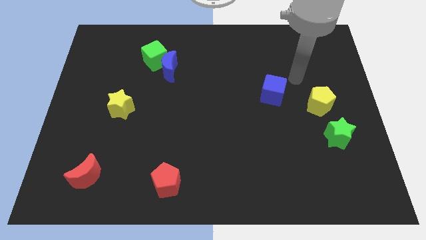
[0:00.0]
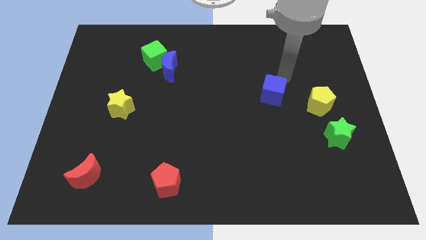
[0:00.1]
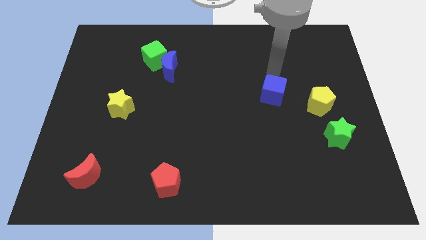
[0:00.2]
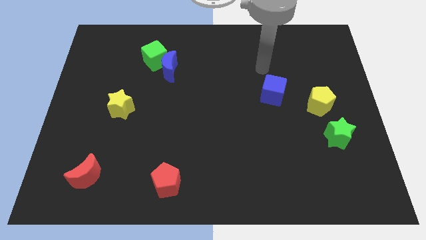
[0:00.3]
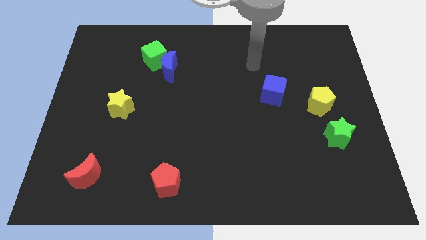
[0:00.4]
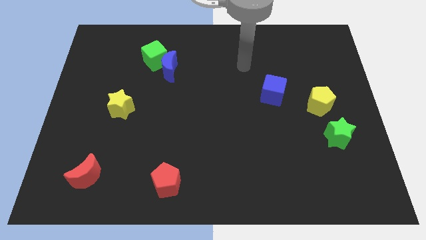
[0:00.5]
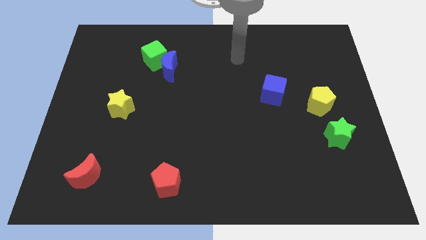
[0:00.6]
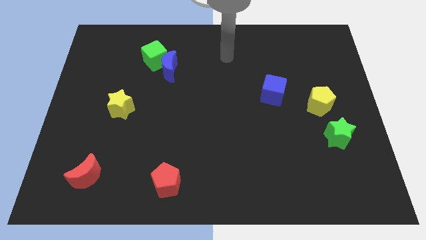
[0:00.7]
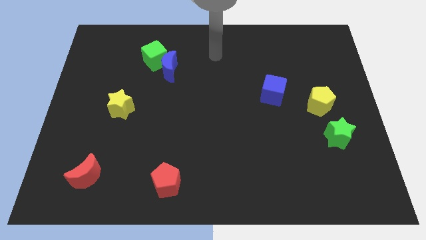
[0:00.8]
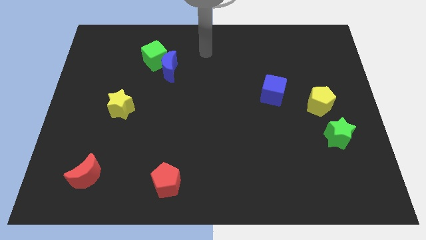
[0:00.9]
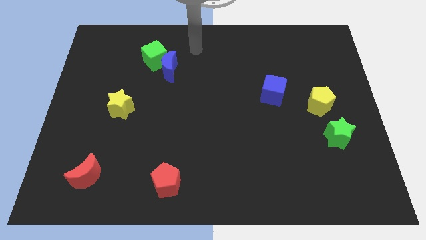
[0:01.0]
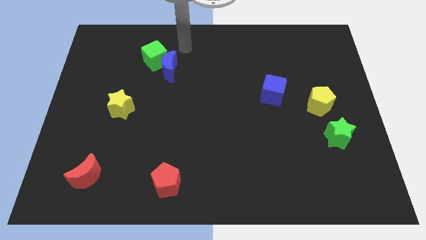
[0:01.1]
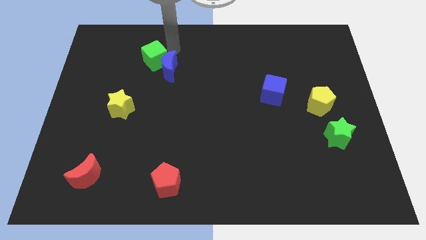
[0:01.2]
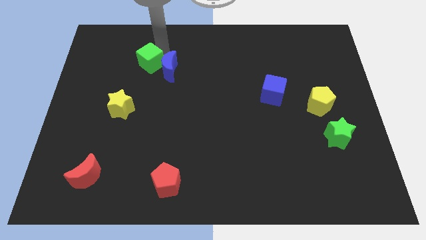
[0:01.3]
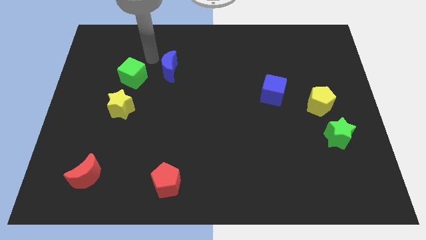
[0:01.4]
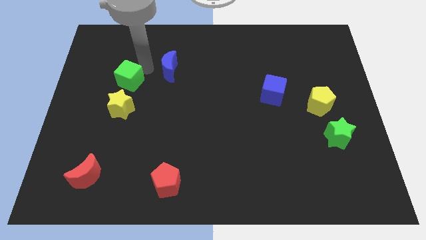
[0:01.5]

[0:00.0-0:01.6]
move the blue moon away from the green cube

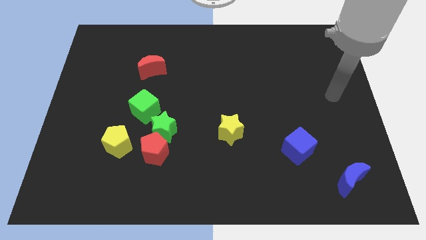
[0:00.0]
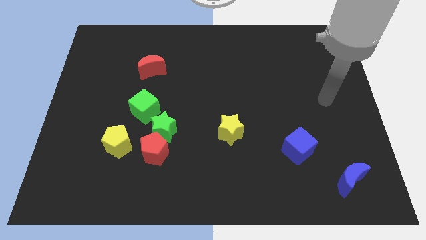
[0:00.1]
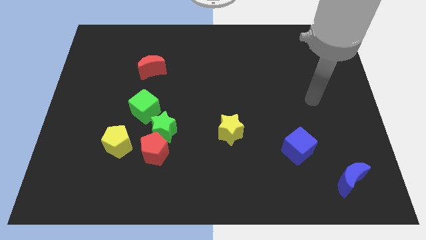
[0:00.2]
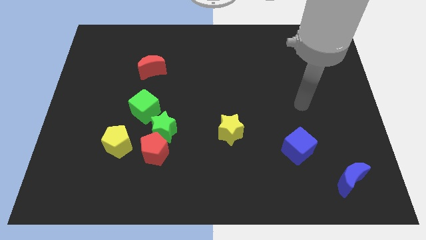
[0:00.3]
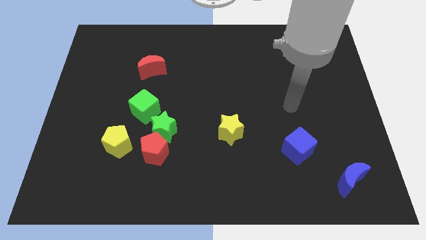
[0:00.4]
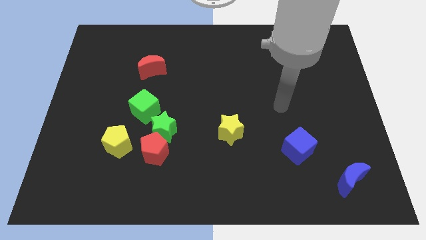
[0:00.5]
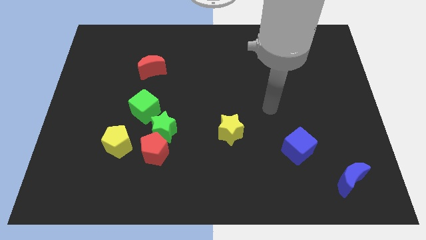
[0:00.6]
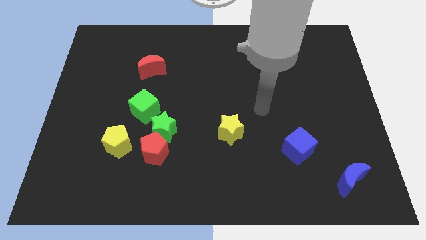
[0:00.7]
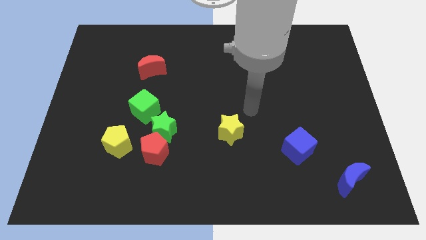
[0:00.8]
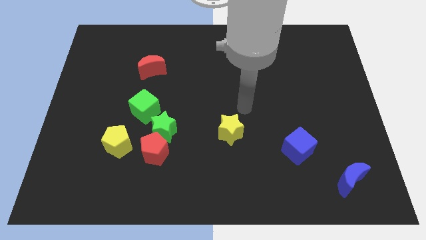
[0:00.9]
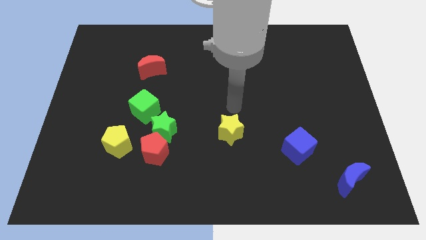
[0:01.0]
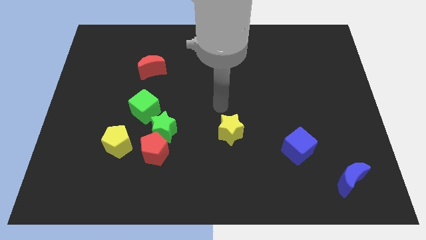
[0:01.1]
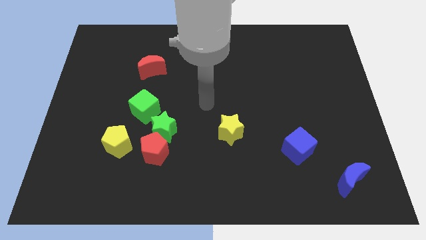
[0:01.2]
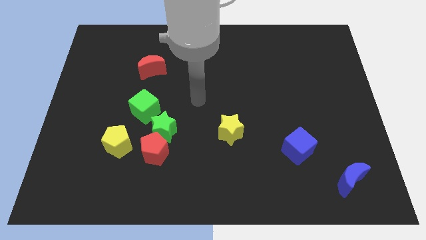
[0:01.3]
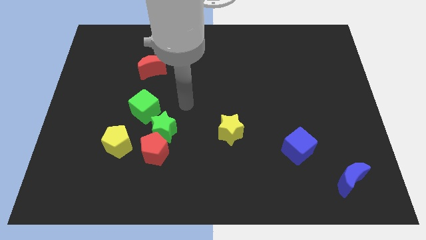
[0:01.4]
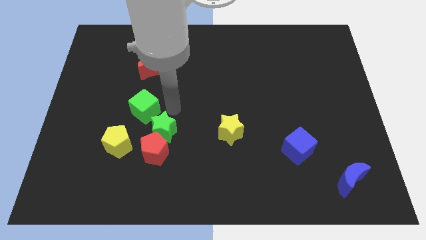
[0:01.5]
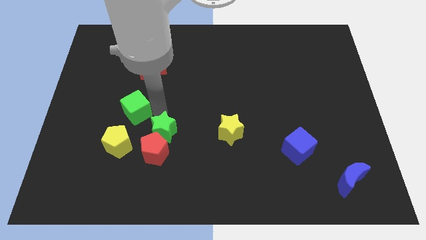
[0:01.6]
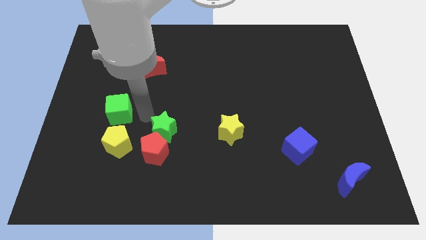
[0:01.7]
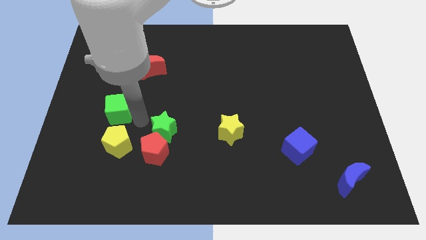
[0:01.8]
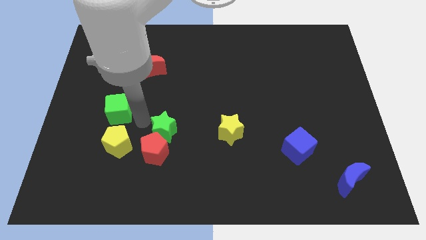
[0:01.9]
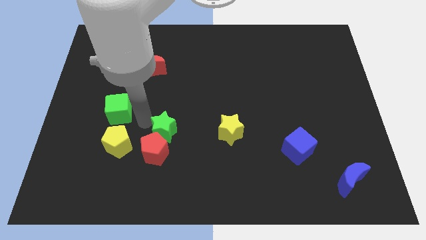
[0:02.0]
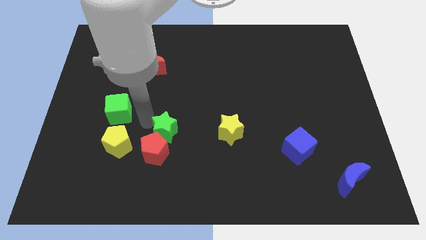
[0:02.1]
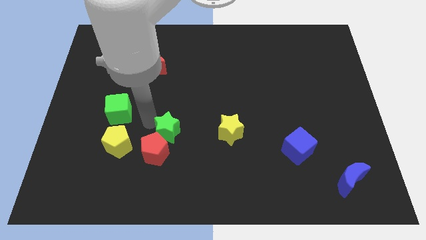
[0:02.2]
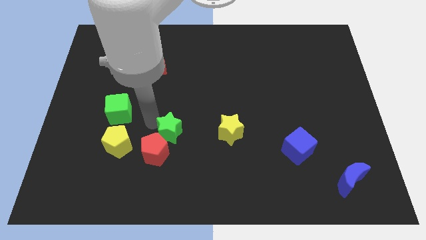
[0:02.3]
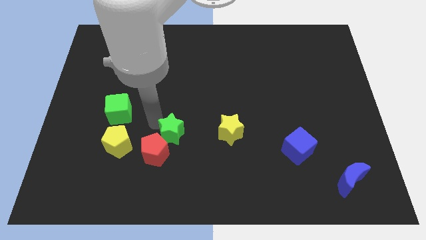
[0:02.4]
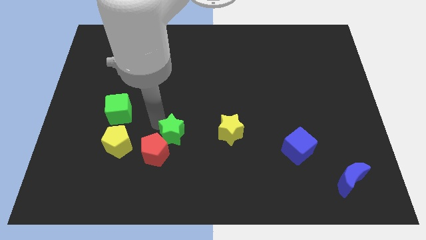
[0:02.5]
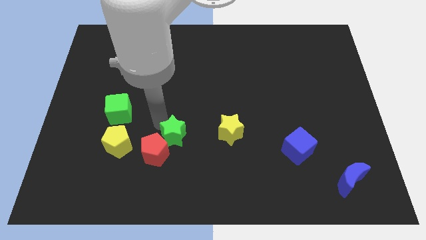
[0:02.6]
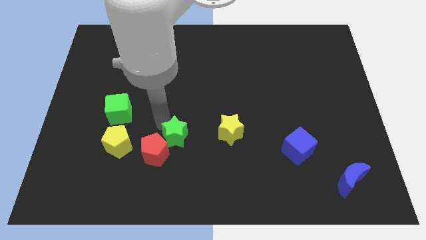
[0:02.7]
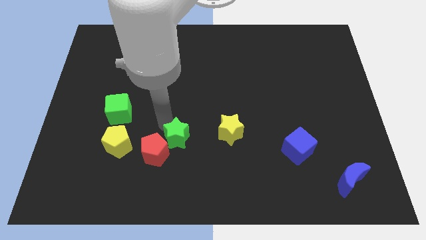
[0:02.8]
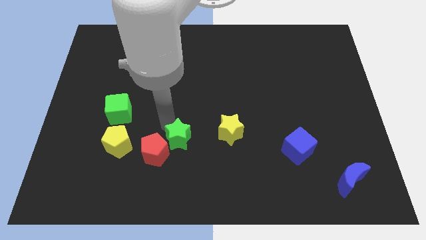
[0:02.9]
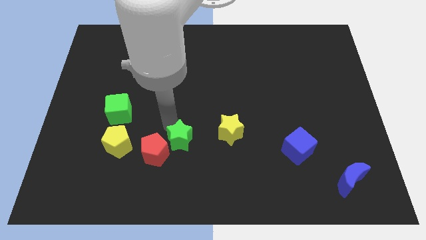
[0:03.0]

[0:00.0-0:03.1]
pull the green star apart from the red pentagon and green cube

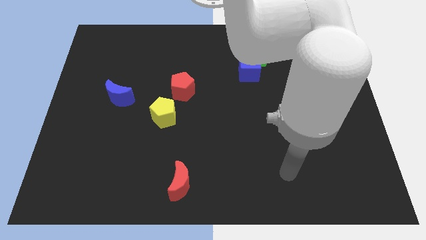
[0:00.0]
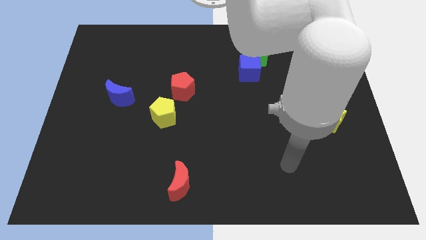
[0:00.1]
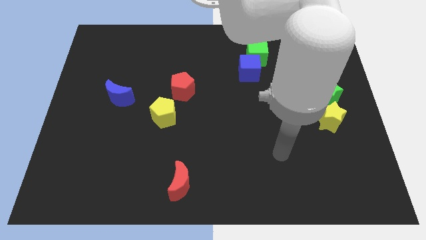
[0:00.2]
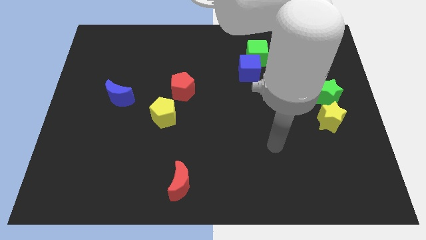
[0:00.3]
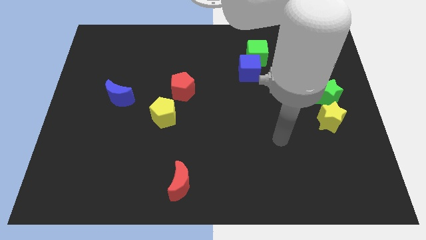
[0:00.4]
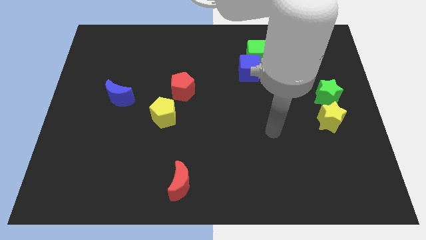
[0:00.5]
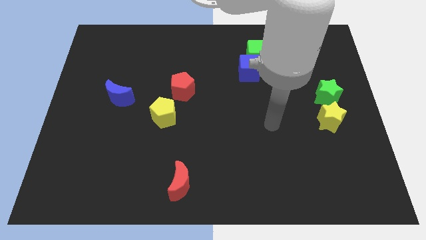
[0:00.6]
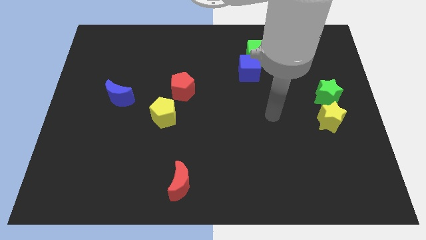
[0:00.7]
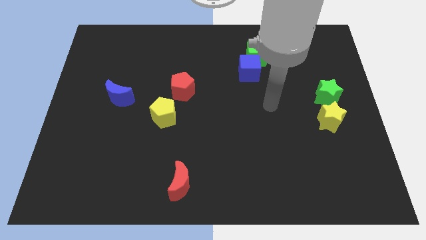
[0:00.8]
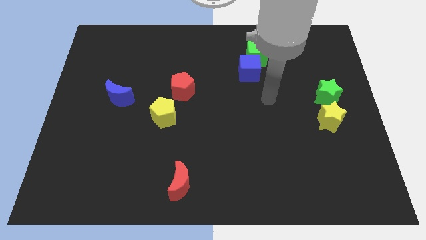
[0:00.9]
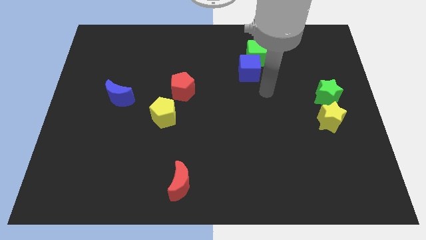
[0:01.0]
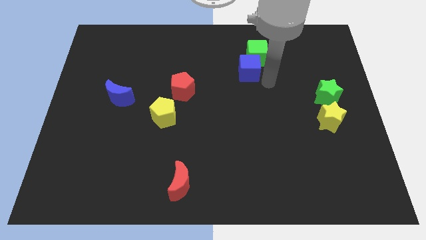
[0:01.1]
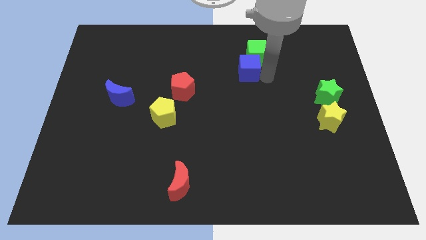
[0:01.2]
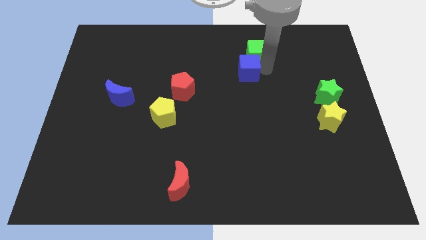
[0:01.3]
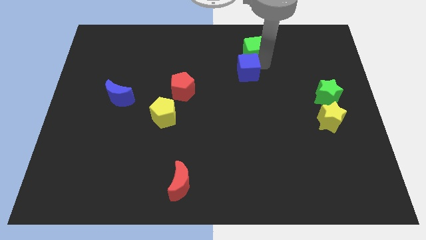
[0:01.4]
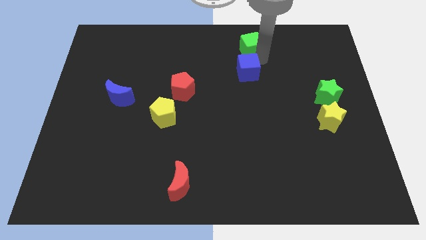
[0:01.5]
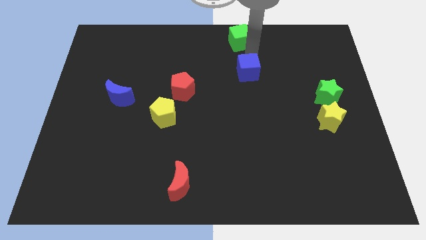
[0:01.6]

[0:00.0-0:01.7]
pull the blue cube apart from the green cube

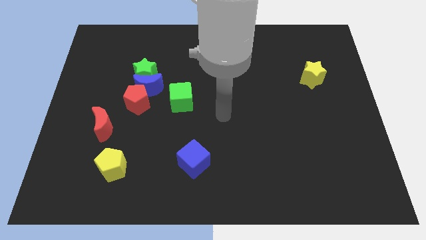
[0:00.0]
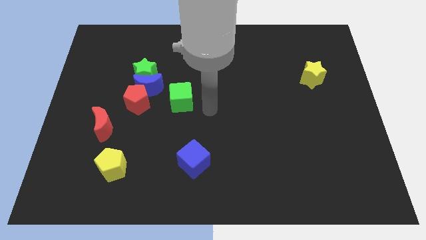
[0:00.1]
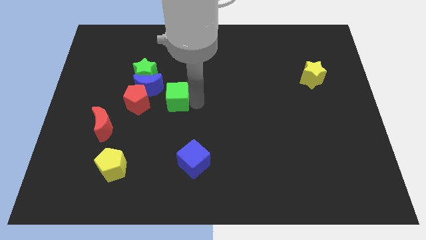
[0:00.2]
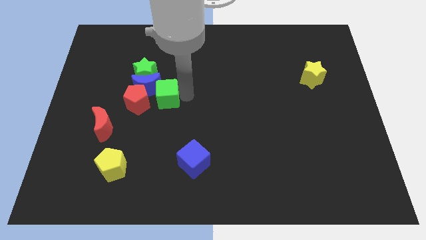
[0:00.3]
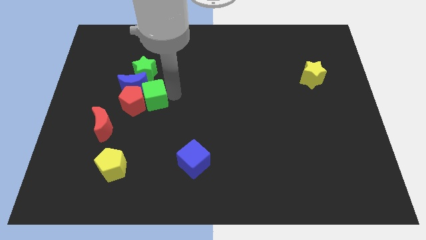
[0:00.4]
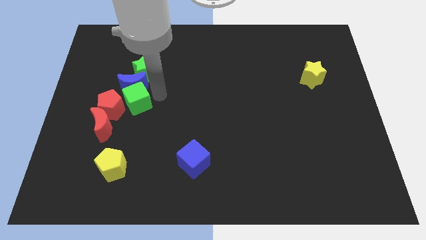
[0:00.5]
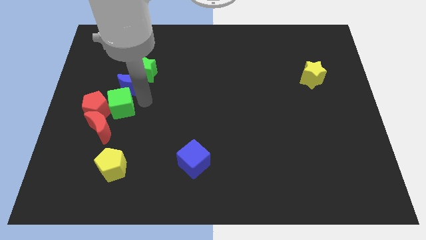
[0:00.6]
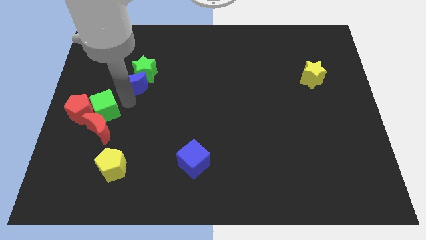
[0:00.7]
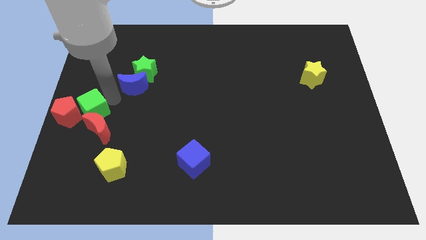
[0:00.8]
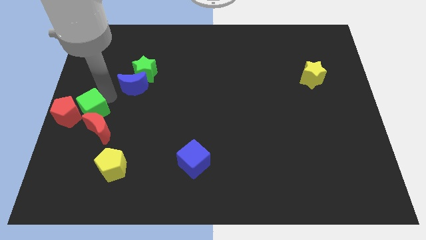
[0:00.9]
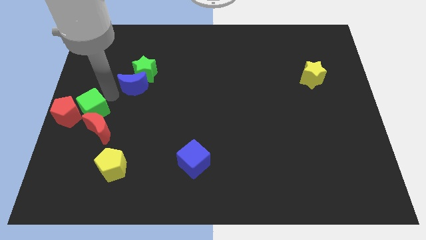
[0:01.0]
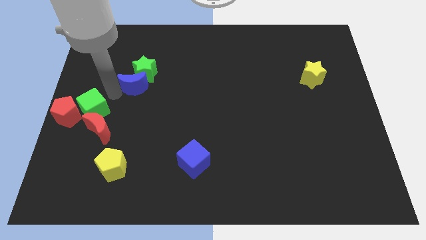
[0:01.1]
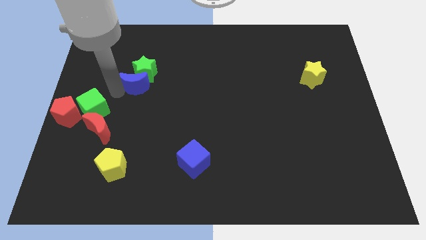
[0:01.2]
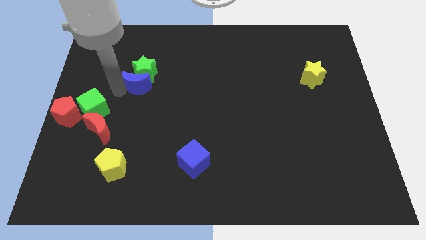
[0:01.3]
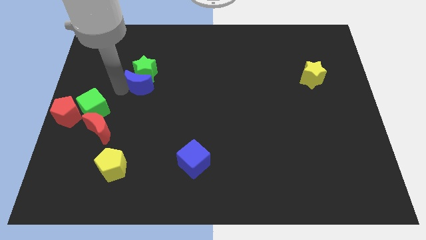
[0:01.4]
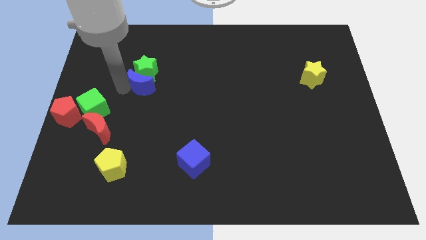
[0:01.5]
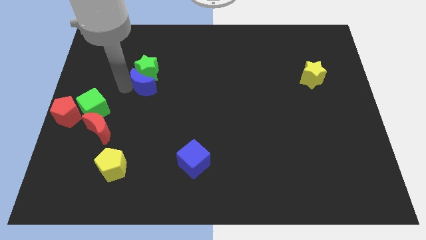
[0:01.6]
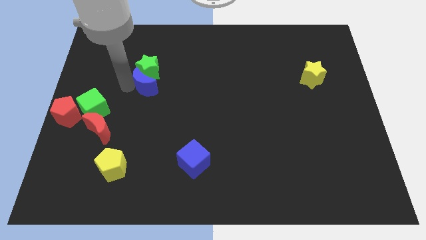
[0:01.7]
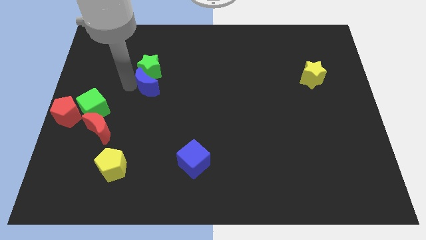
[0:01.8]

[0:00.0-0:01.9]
move the blue moon away from the green star, red pentagon, and green cube

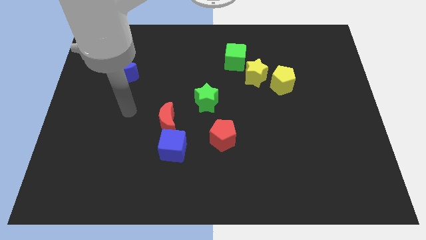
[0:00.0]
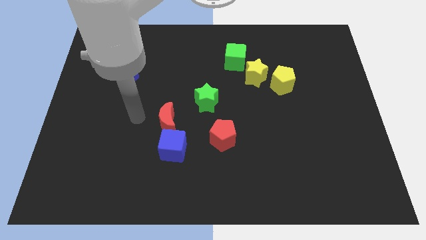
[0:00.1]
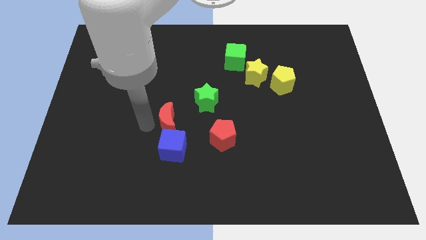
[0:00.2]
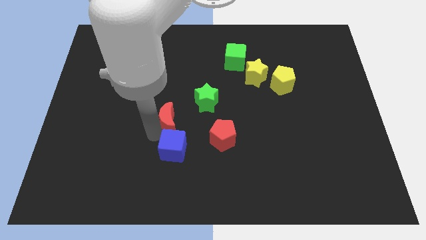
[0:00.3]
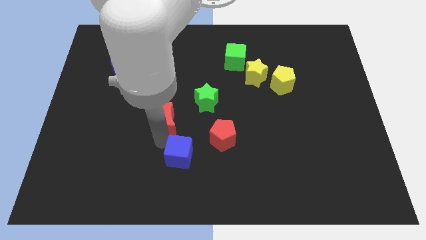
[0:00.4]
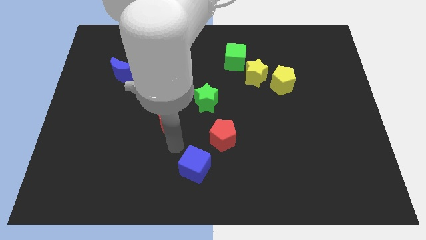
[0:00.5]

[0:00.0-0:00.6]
move the red moon away from the blue cube

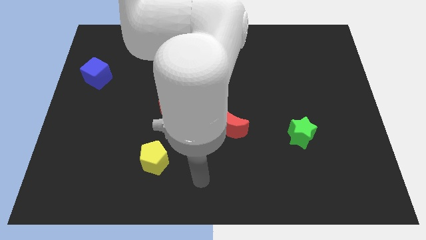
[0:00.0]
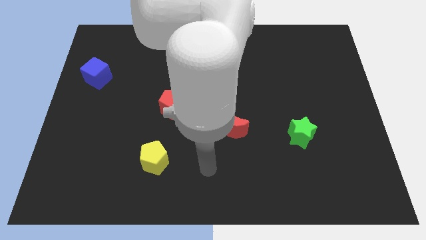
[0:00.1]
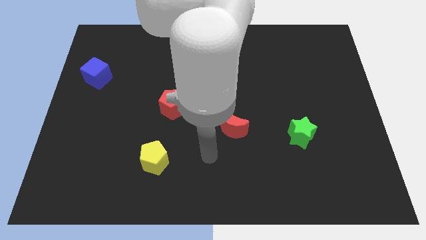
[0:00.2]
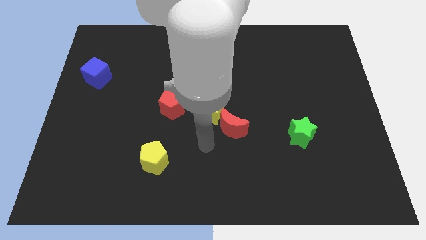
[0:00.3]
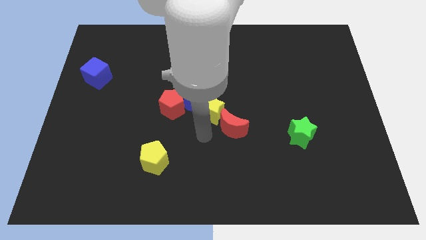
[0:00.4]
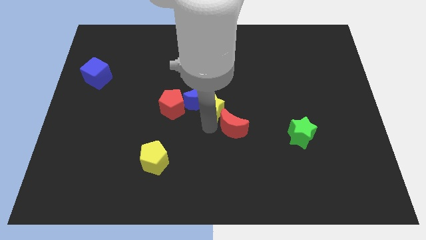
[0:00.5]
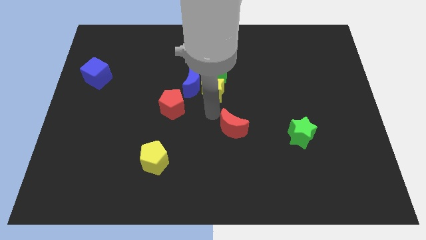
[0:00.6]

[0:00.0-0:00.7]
move the red moon away from the yellow star
